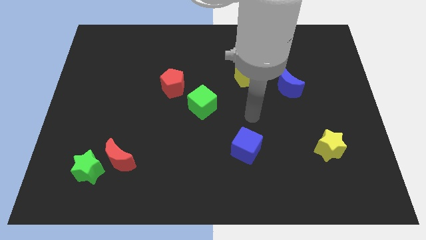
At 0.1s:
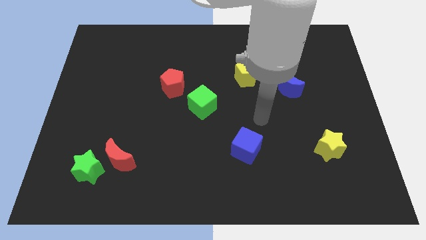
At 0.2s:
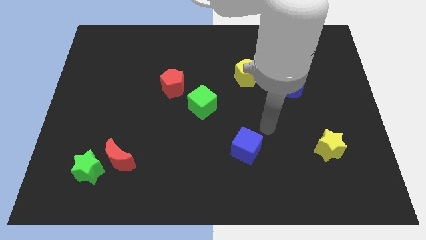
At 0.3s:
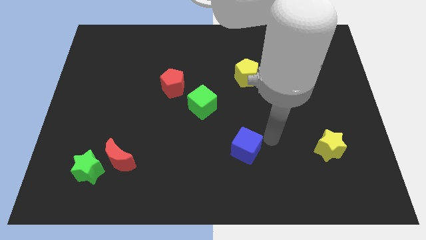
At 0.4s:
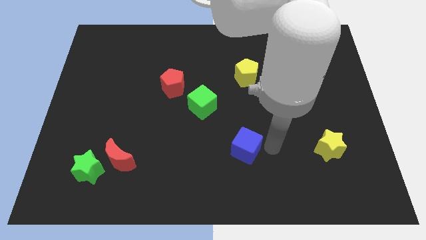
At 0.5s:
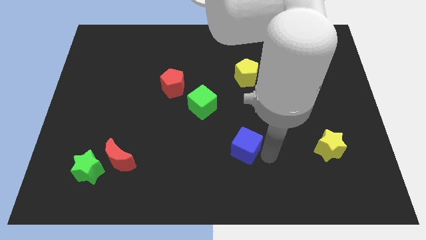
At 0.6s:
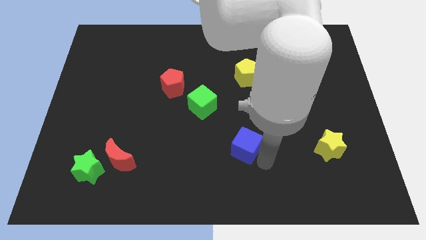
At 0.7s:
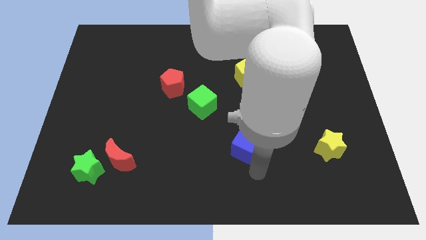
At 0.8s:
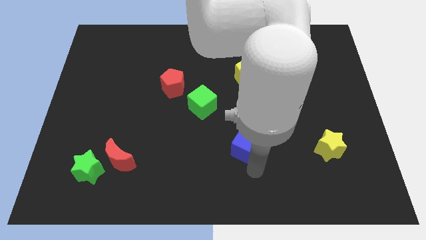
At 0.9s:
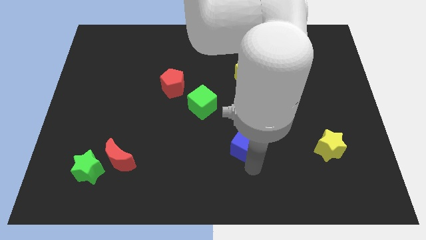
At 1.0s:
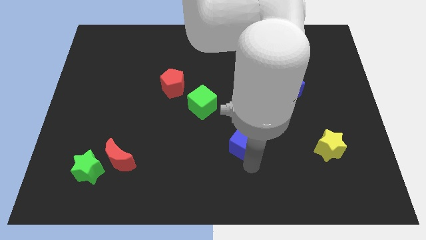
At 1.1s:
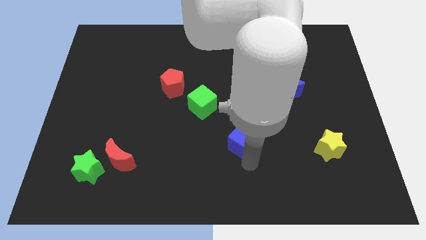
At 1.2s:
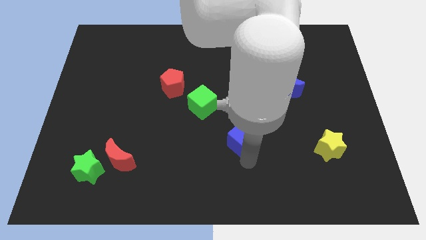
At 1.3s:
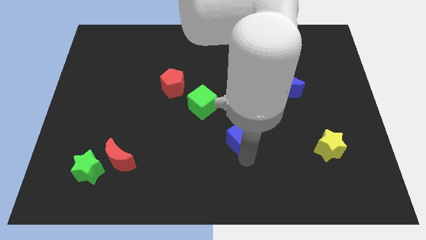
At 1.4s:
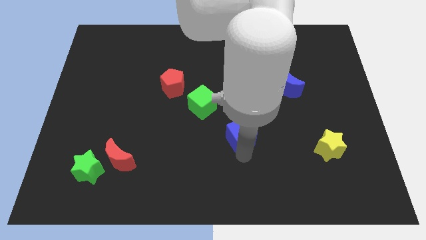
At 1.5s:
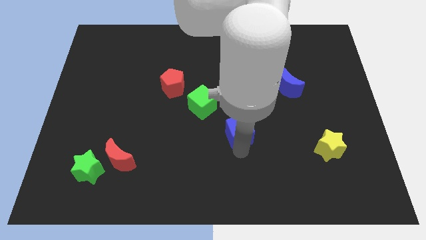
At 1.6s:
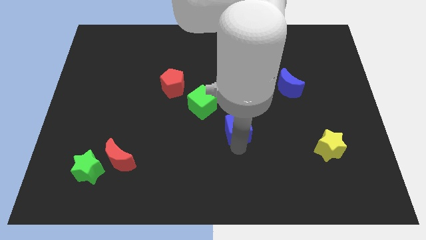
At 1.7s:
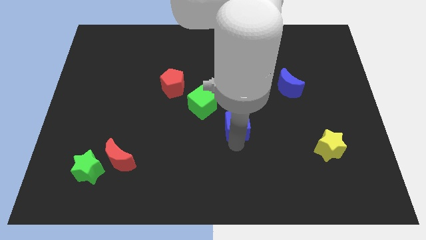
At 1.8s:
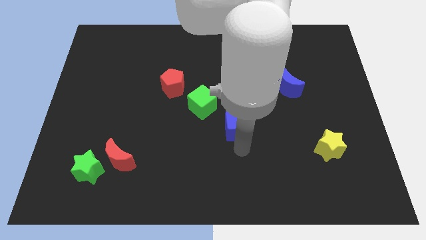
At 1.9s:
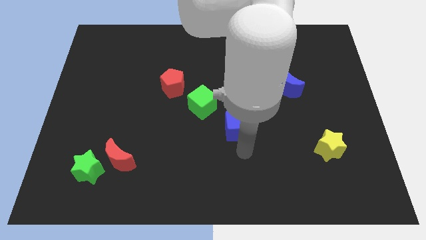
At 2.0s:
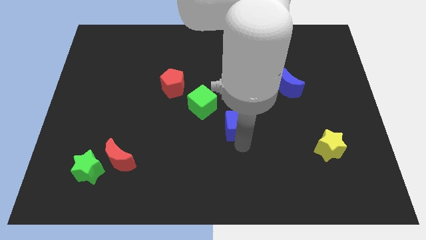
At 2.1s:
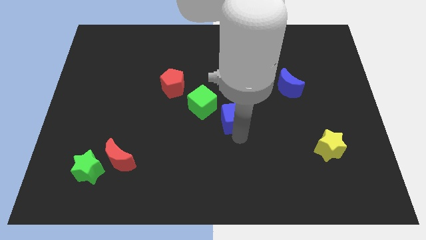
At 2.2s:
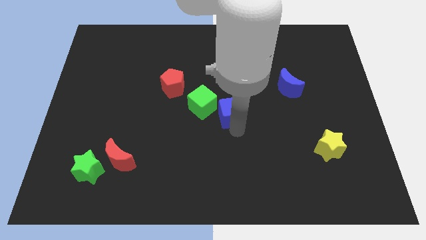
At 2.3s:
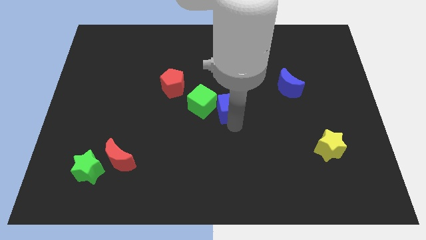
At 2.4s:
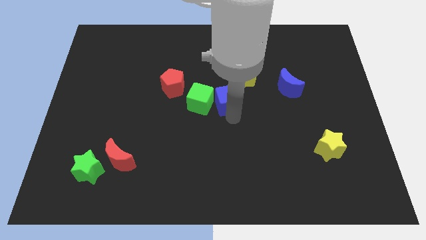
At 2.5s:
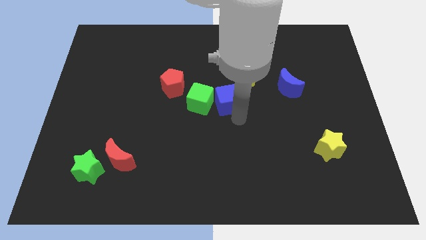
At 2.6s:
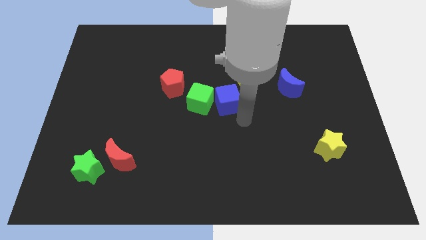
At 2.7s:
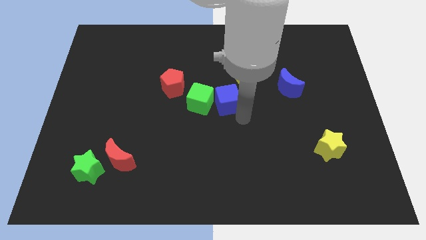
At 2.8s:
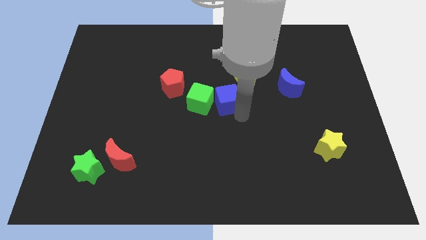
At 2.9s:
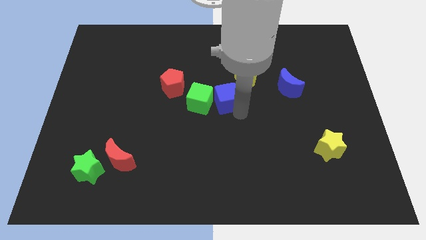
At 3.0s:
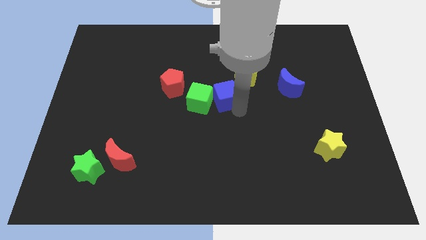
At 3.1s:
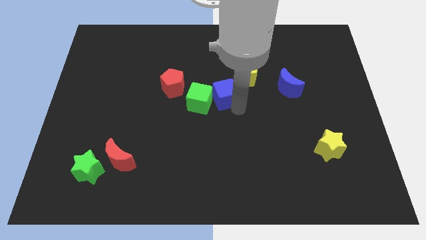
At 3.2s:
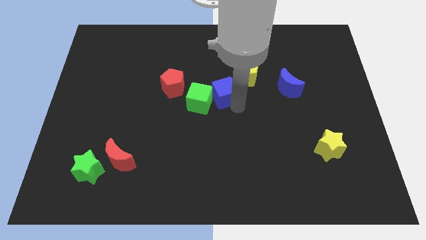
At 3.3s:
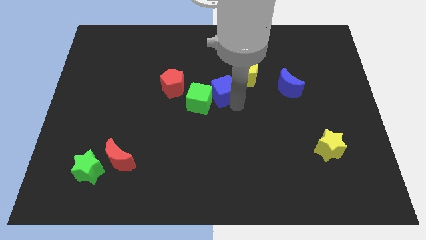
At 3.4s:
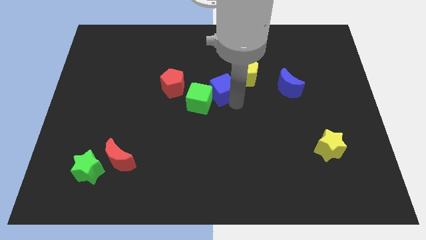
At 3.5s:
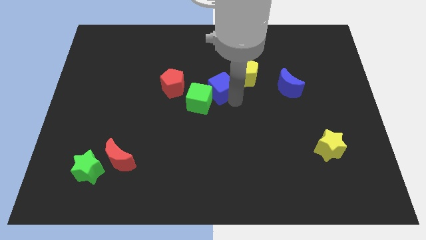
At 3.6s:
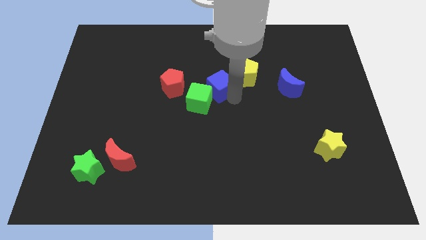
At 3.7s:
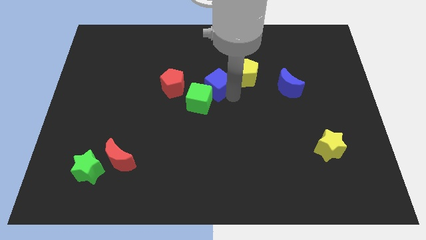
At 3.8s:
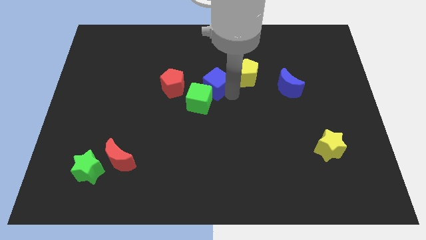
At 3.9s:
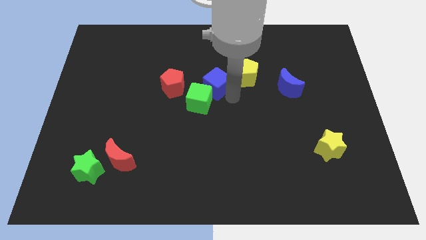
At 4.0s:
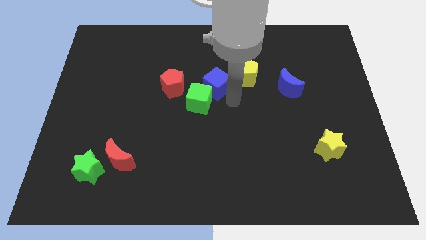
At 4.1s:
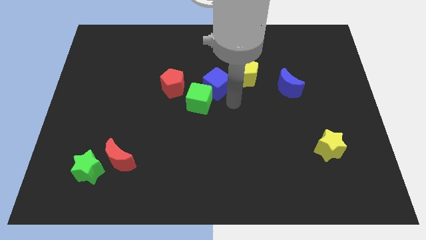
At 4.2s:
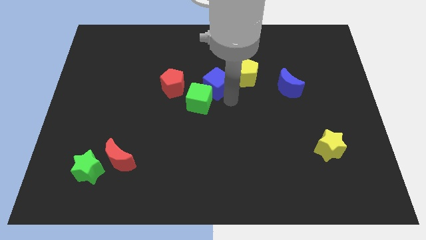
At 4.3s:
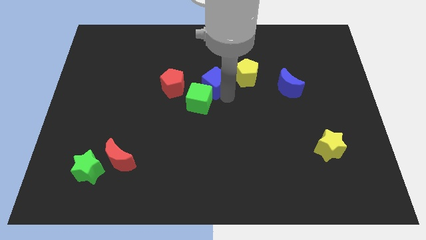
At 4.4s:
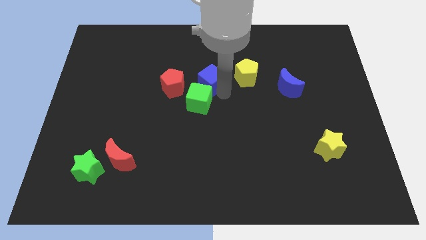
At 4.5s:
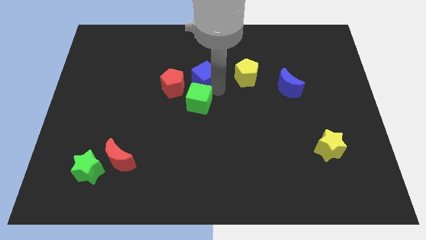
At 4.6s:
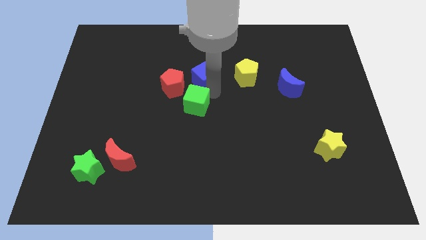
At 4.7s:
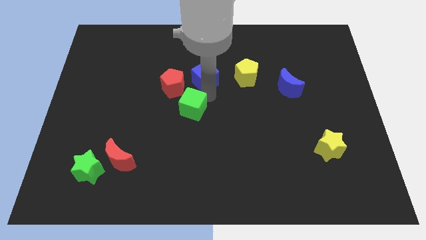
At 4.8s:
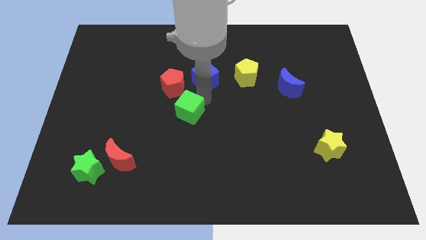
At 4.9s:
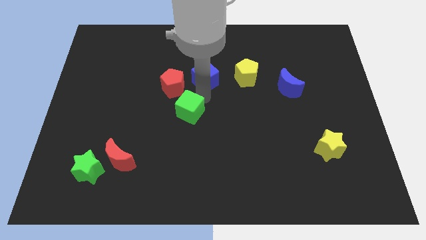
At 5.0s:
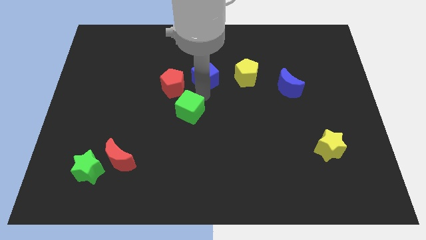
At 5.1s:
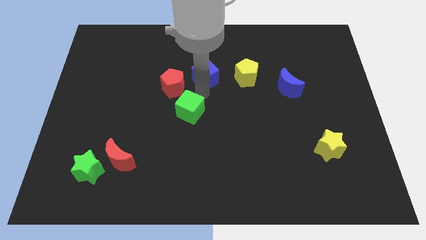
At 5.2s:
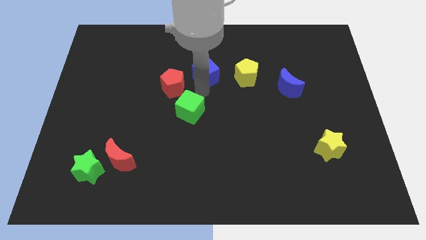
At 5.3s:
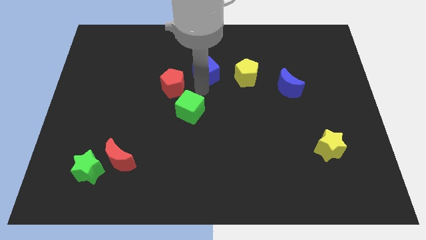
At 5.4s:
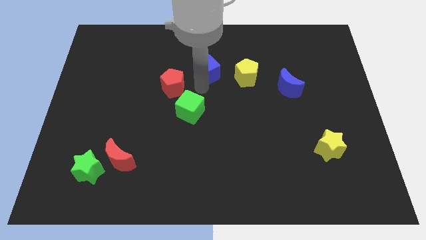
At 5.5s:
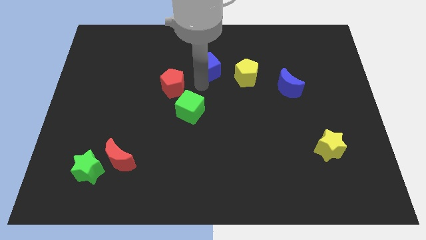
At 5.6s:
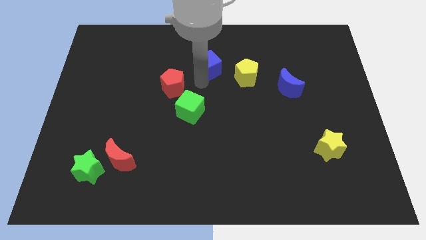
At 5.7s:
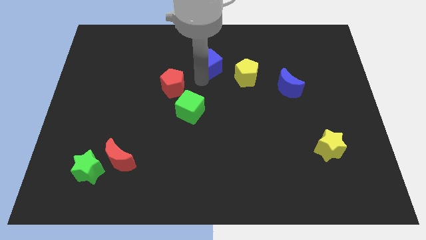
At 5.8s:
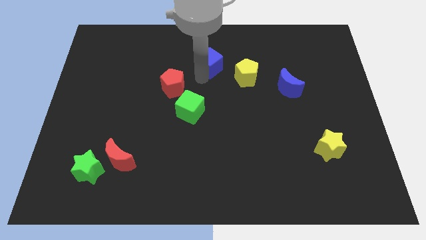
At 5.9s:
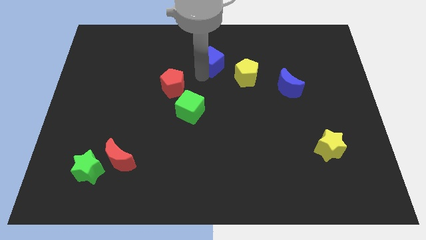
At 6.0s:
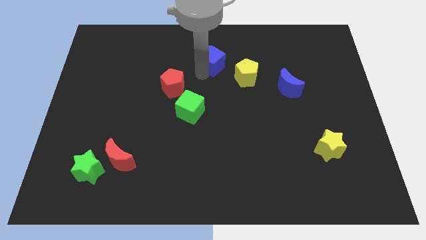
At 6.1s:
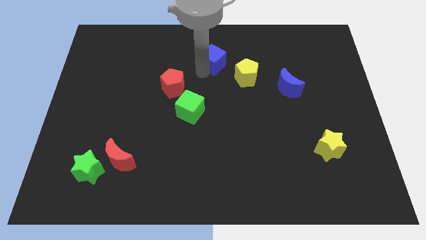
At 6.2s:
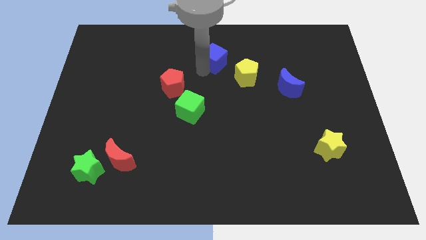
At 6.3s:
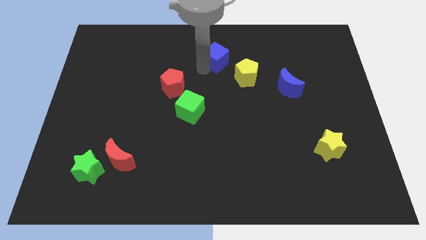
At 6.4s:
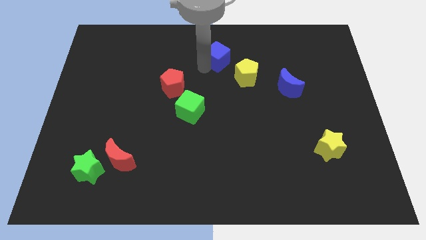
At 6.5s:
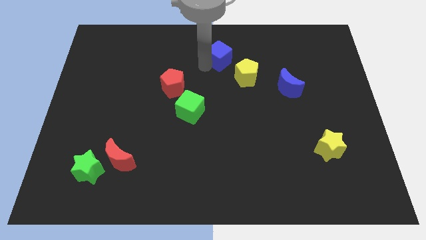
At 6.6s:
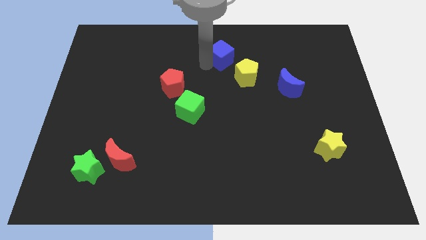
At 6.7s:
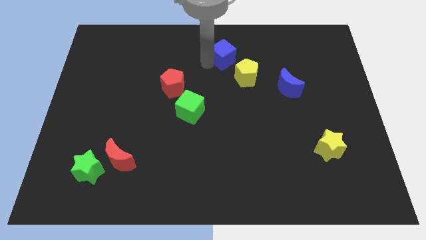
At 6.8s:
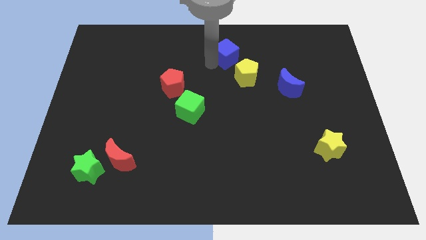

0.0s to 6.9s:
move the blue cube to the top

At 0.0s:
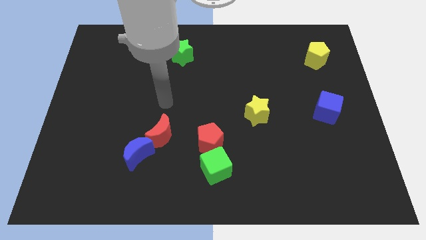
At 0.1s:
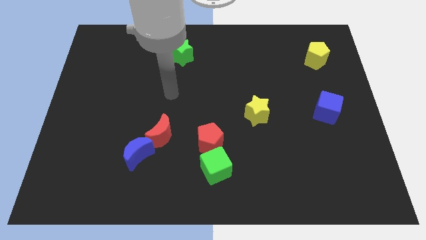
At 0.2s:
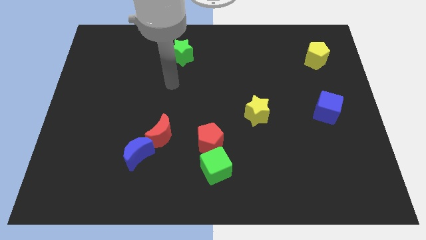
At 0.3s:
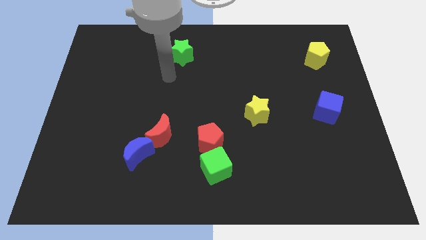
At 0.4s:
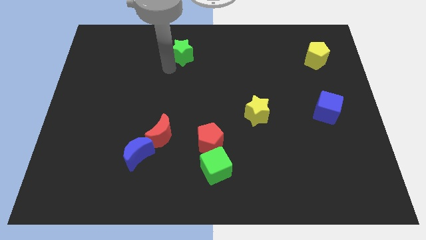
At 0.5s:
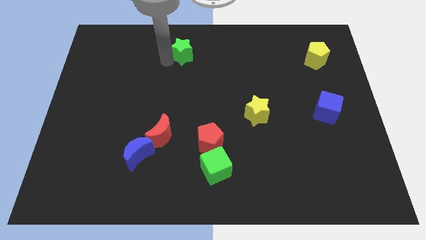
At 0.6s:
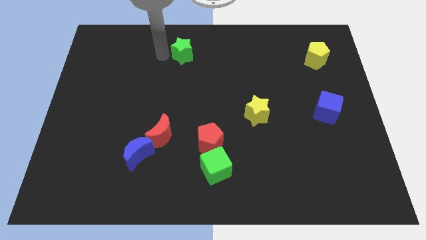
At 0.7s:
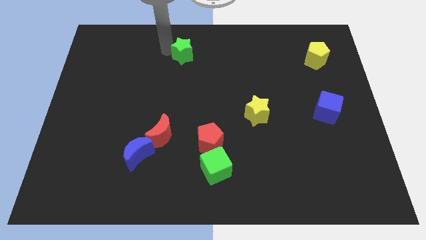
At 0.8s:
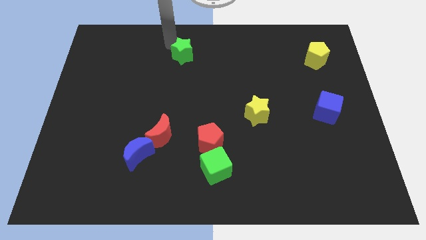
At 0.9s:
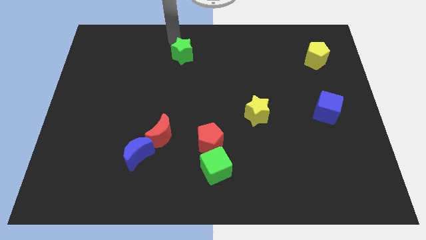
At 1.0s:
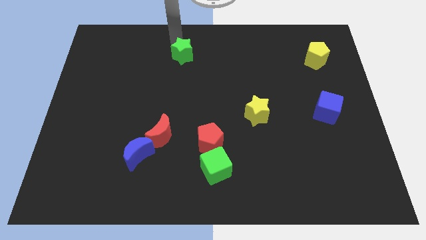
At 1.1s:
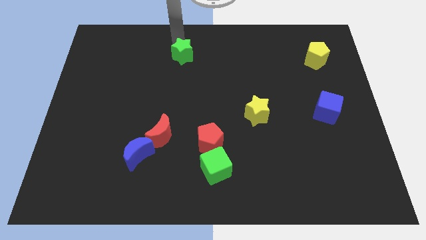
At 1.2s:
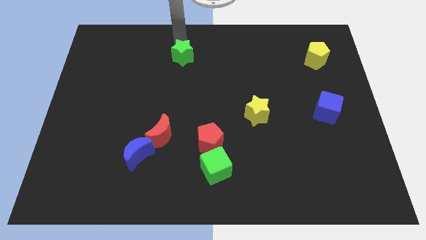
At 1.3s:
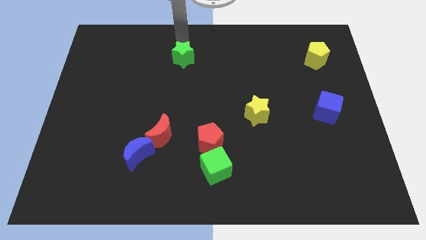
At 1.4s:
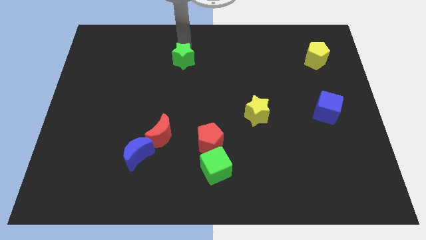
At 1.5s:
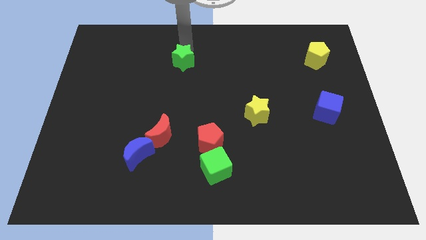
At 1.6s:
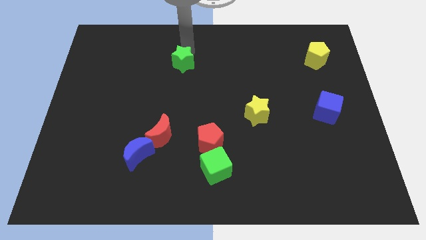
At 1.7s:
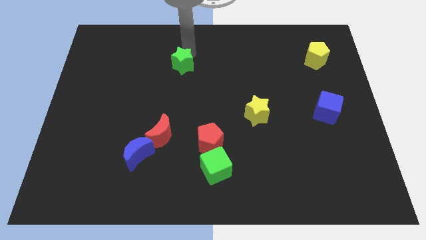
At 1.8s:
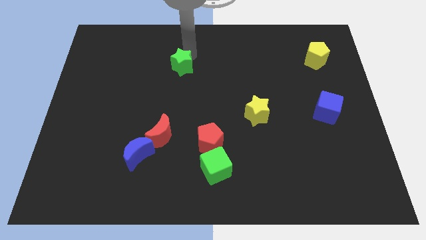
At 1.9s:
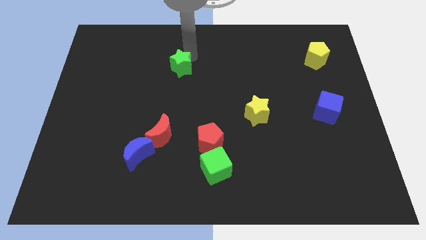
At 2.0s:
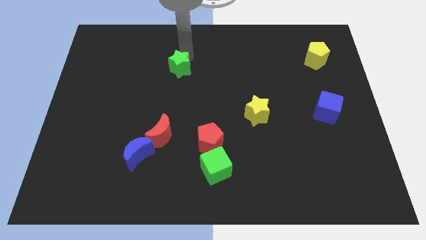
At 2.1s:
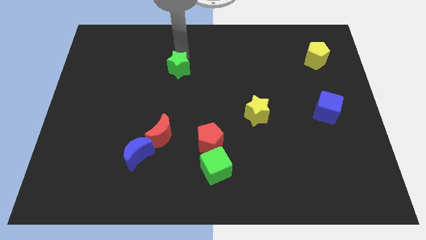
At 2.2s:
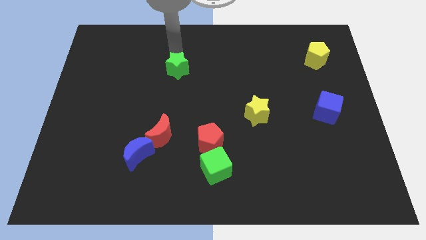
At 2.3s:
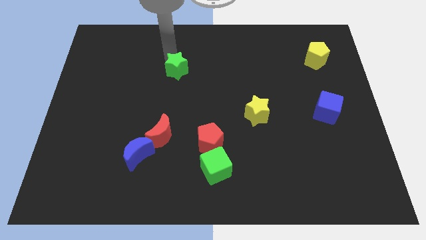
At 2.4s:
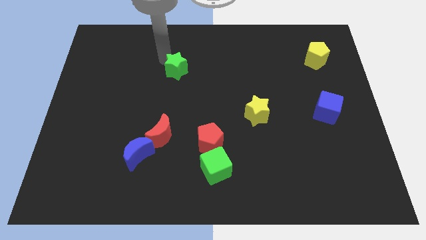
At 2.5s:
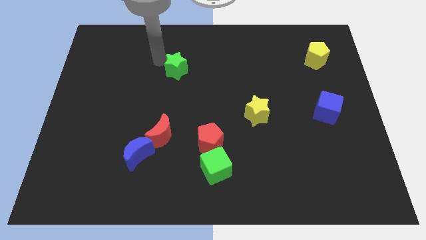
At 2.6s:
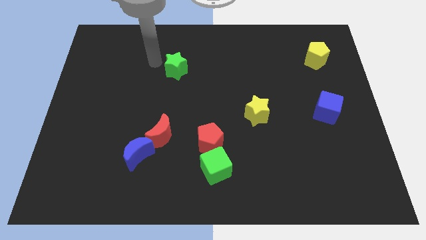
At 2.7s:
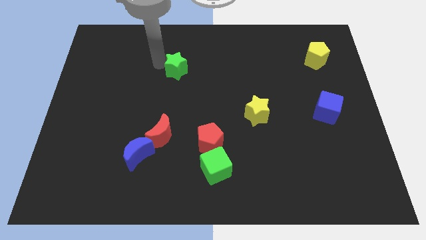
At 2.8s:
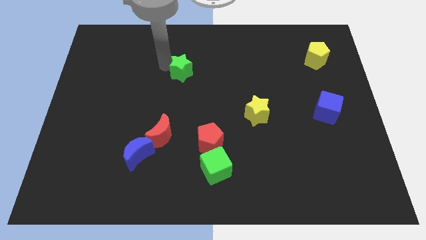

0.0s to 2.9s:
move the green star to the middle
